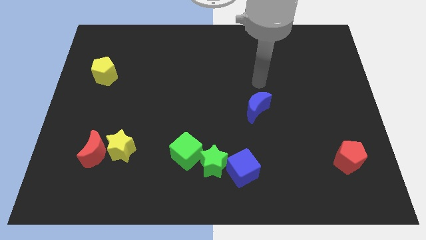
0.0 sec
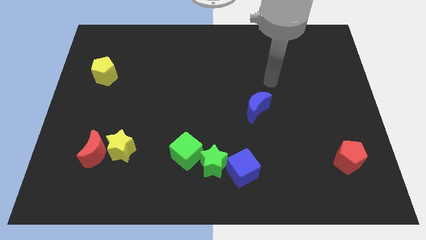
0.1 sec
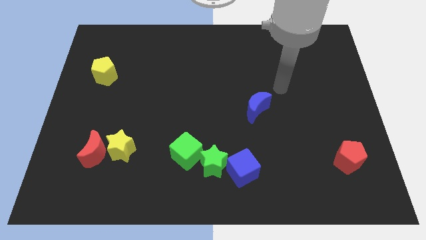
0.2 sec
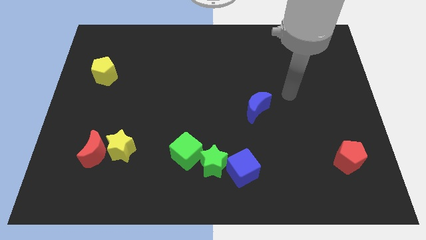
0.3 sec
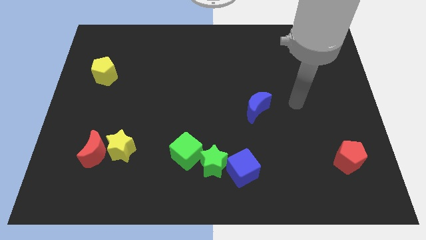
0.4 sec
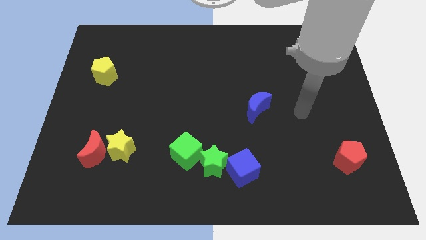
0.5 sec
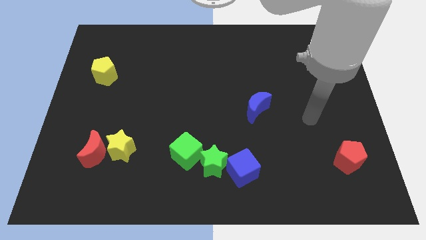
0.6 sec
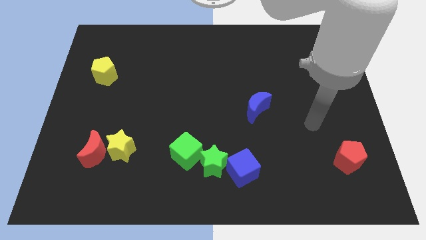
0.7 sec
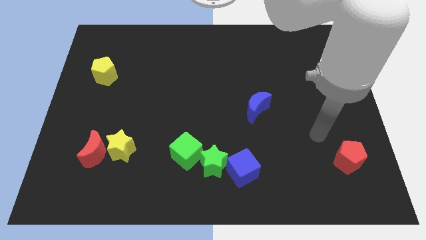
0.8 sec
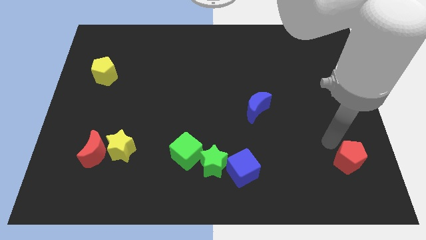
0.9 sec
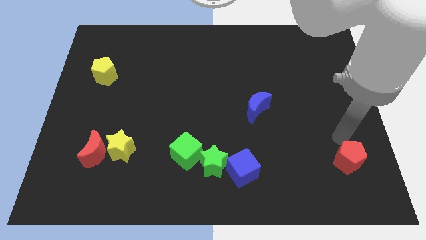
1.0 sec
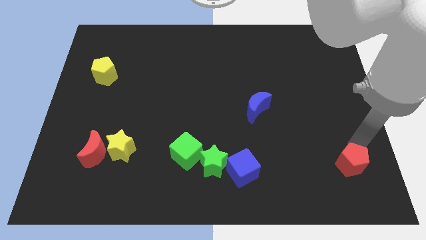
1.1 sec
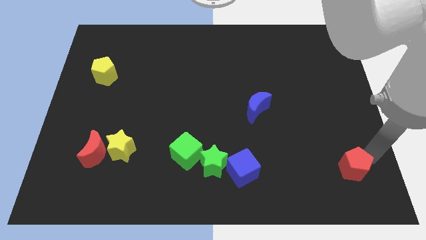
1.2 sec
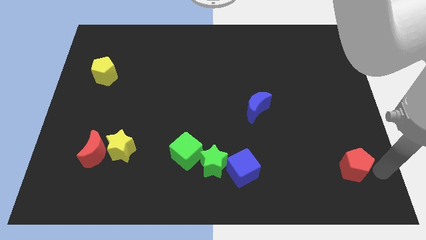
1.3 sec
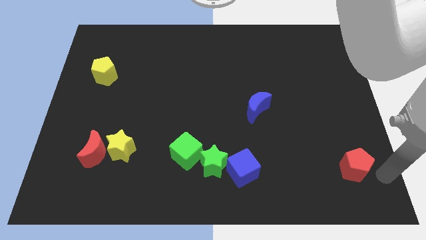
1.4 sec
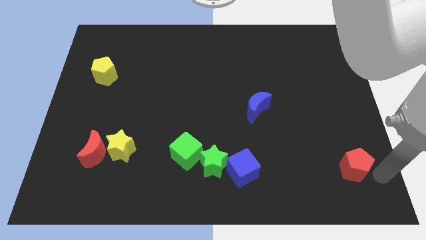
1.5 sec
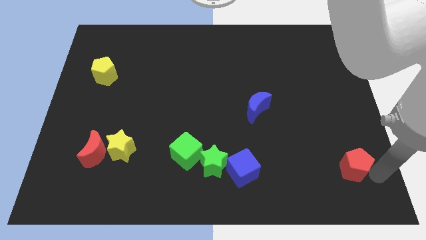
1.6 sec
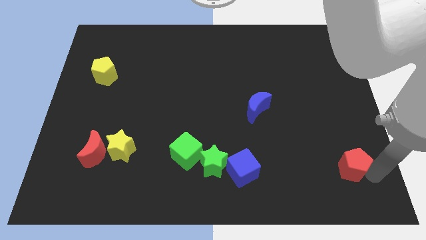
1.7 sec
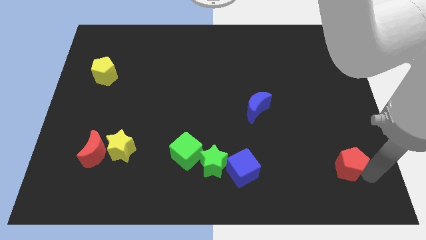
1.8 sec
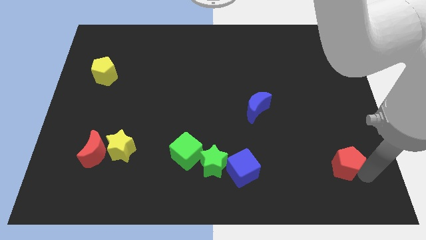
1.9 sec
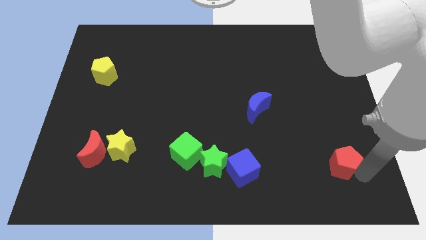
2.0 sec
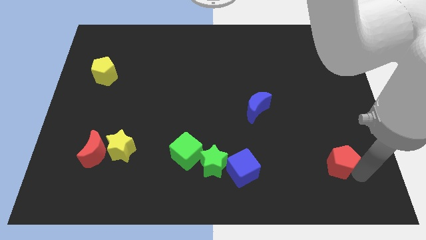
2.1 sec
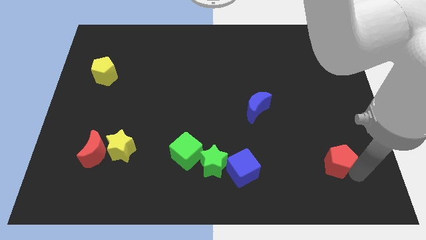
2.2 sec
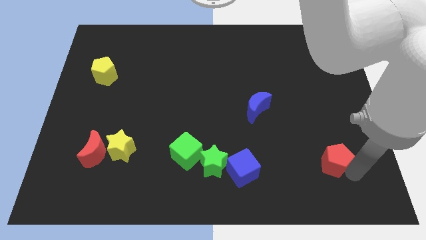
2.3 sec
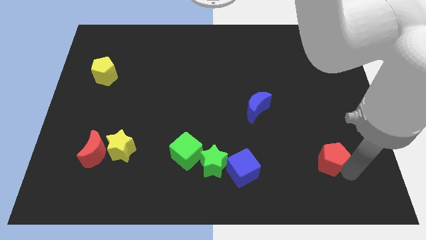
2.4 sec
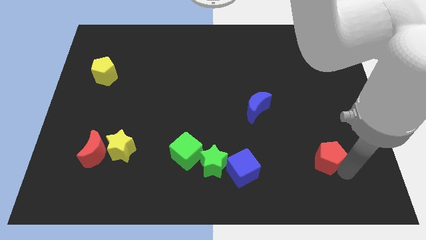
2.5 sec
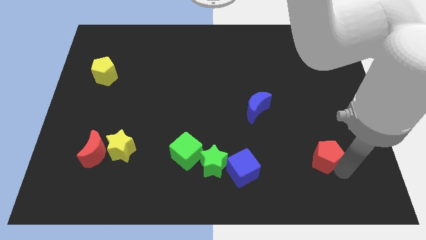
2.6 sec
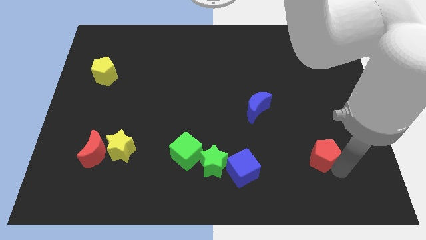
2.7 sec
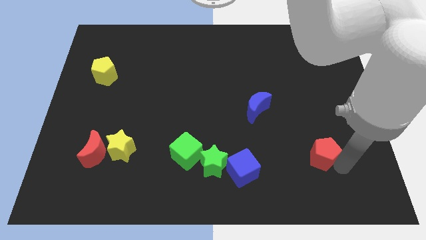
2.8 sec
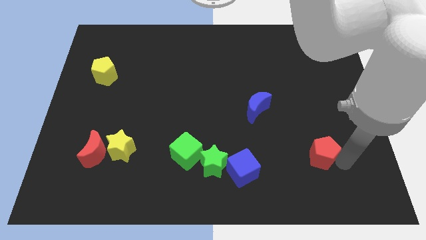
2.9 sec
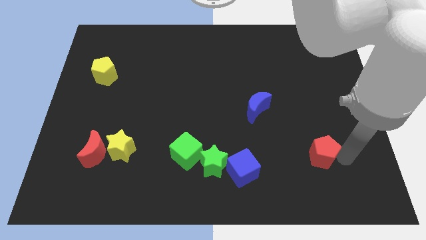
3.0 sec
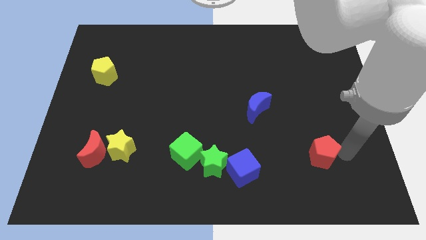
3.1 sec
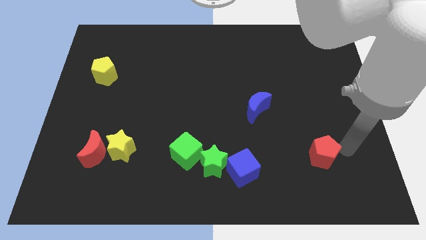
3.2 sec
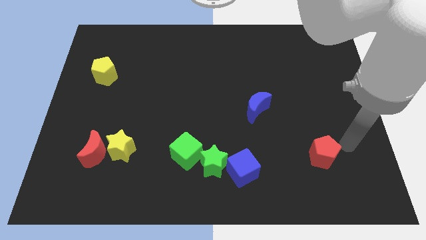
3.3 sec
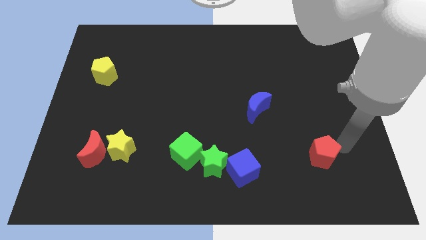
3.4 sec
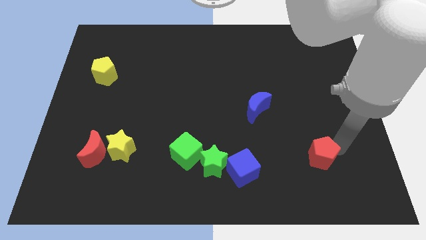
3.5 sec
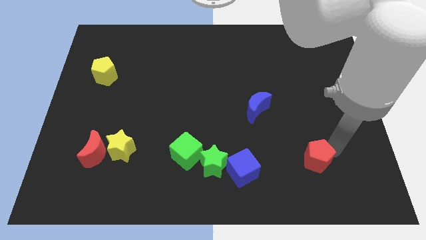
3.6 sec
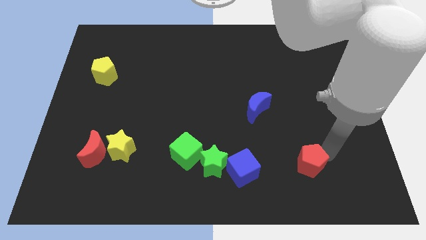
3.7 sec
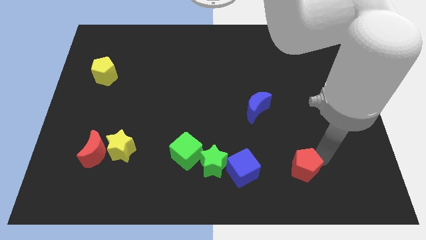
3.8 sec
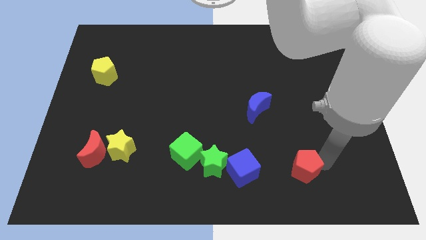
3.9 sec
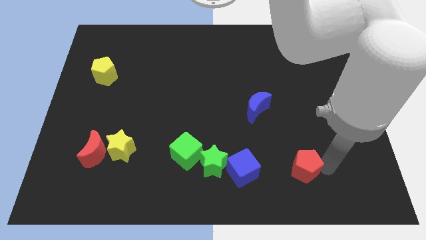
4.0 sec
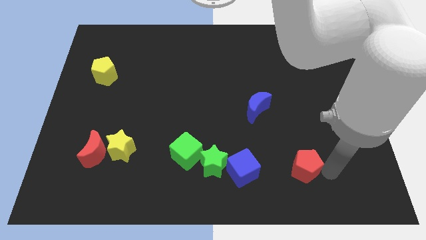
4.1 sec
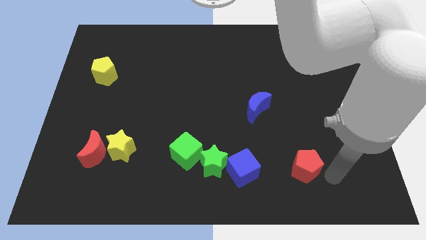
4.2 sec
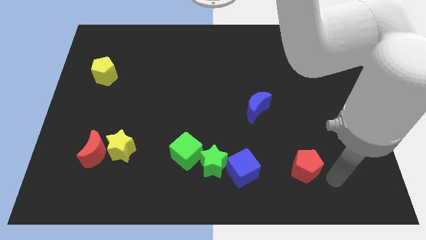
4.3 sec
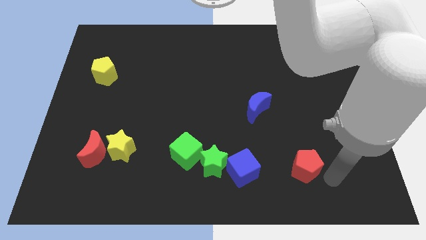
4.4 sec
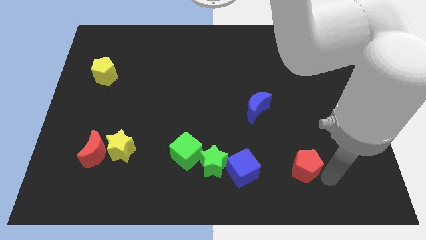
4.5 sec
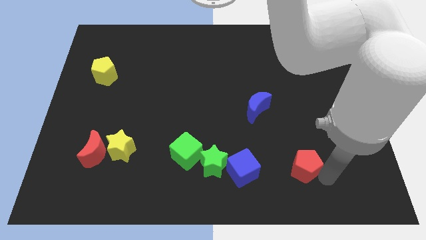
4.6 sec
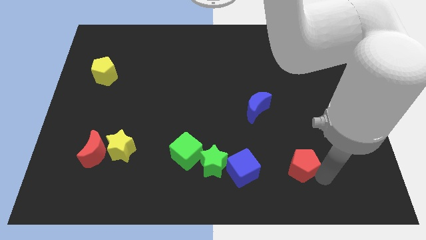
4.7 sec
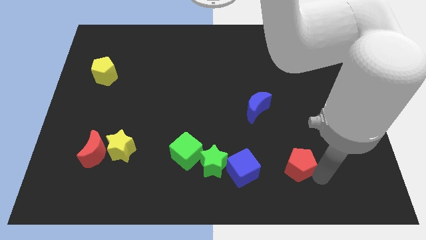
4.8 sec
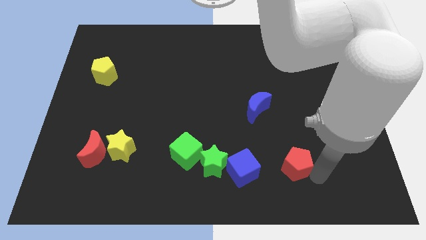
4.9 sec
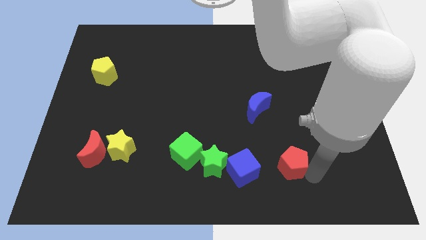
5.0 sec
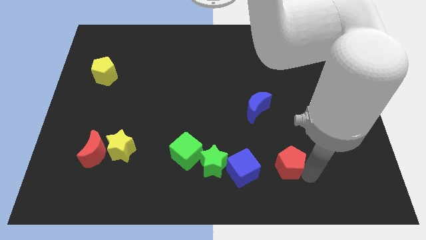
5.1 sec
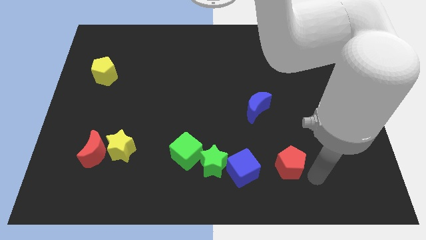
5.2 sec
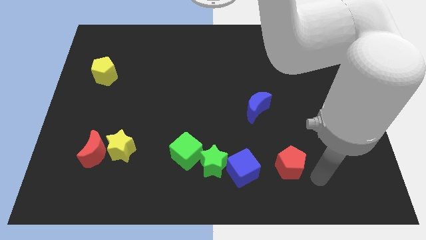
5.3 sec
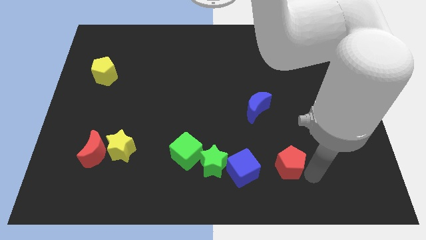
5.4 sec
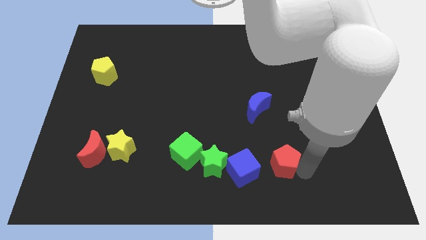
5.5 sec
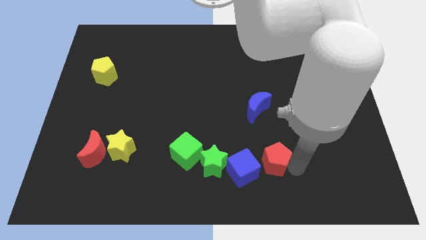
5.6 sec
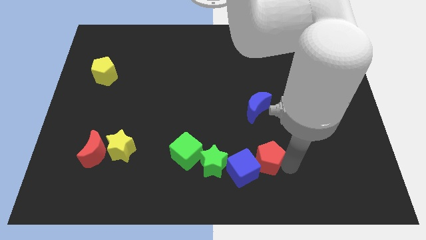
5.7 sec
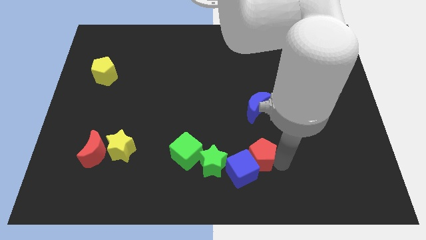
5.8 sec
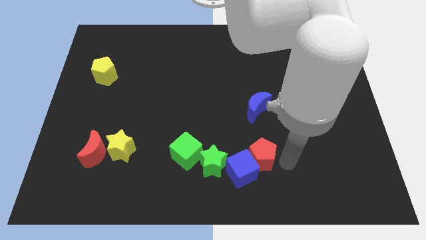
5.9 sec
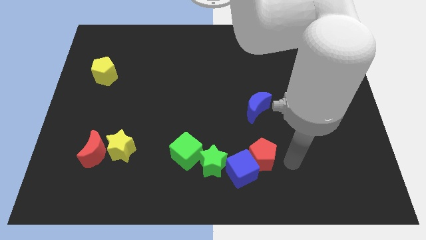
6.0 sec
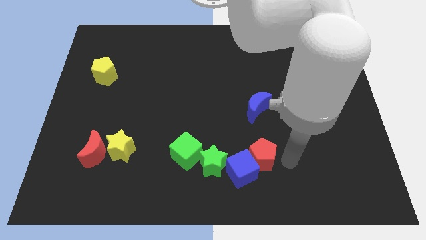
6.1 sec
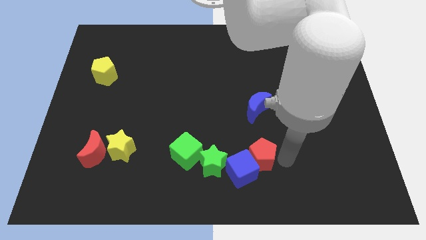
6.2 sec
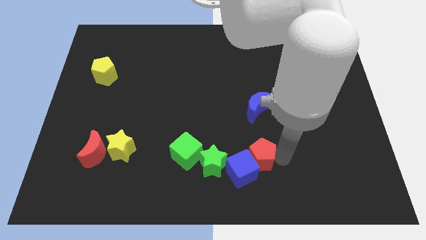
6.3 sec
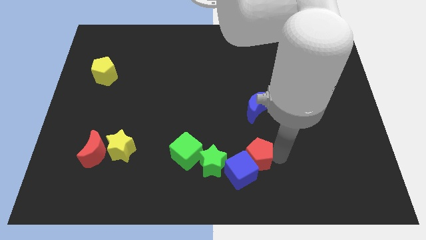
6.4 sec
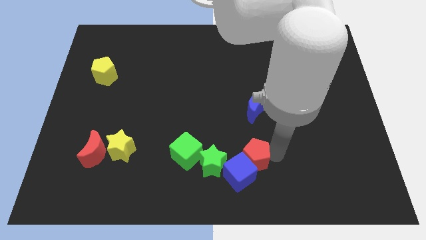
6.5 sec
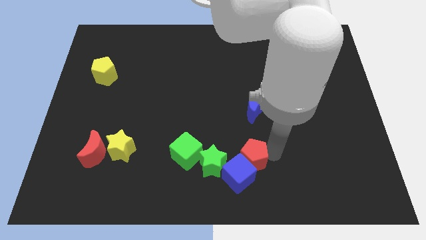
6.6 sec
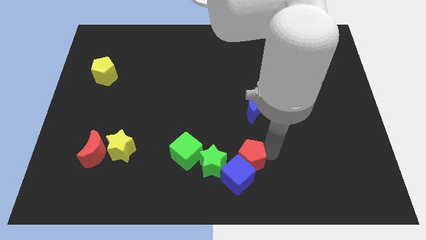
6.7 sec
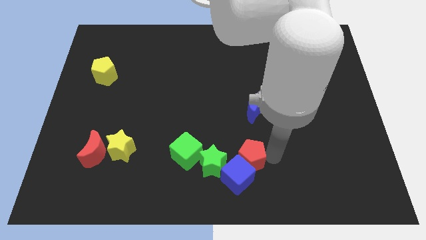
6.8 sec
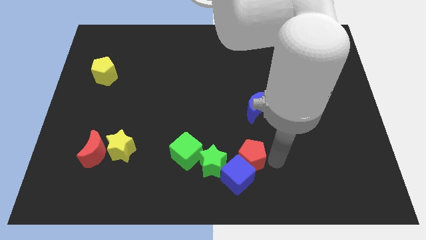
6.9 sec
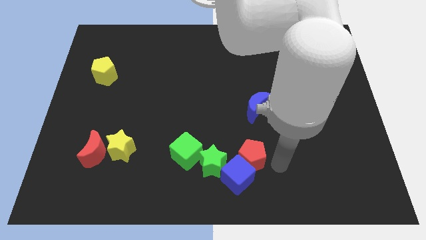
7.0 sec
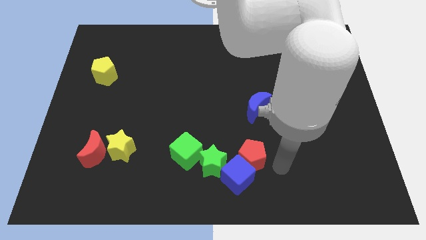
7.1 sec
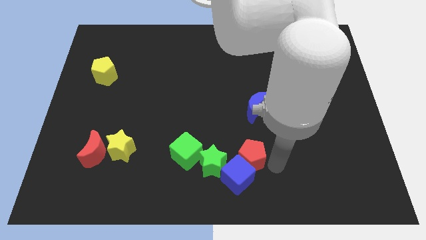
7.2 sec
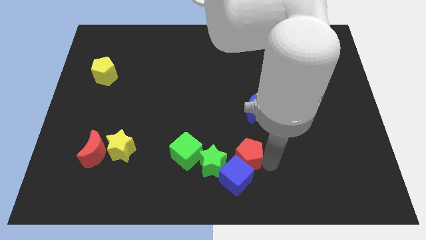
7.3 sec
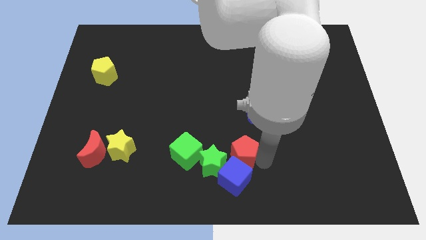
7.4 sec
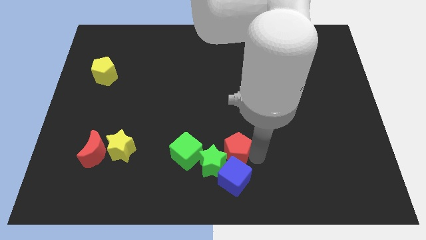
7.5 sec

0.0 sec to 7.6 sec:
slide the red pentagon towards the green star
